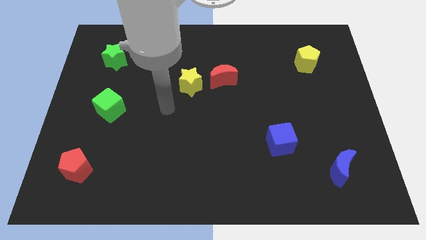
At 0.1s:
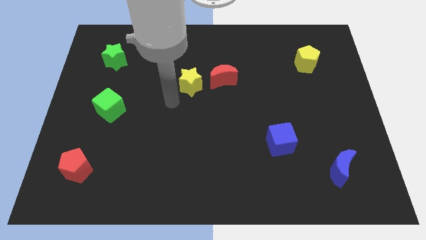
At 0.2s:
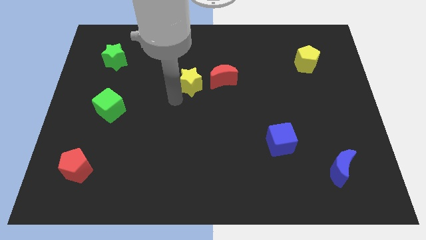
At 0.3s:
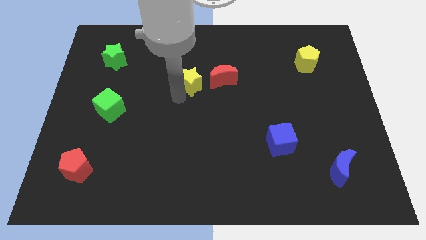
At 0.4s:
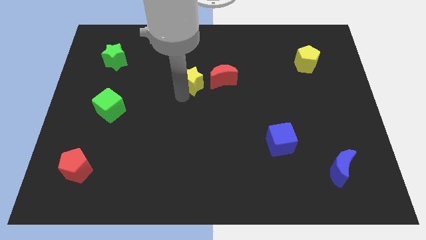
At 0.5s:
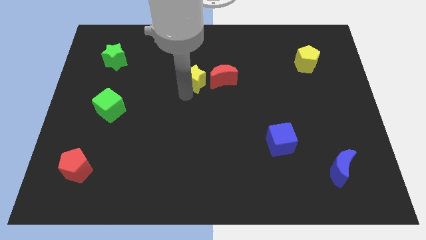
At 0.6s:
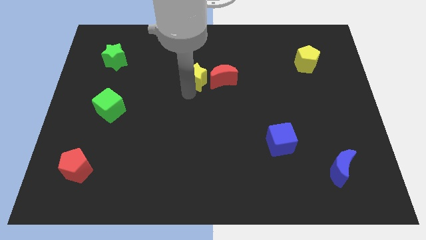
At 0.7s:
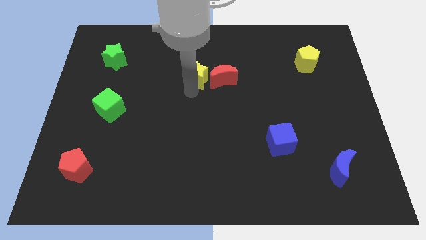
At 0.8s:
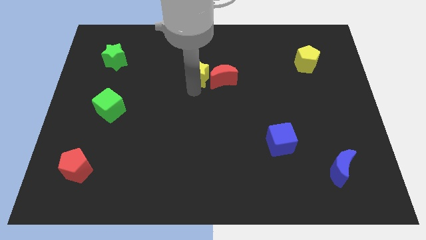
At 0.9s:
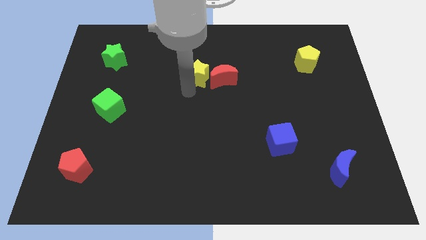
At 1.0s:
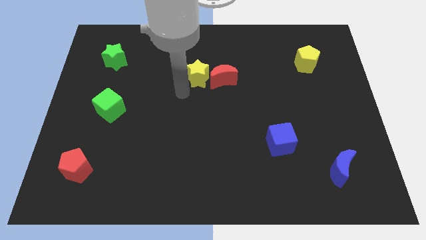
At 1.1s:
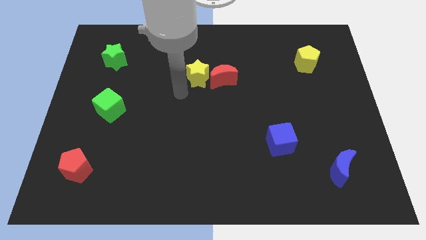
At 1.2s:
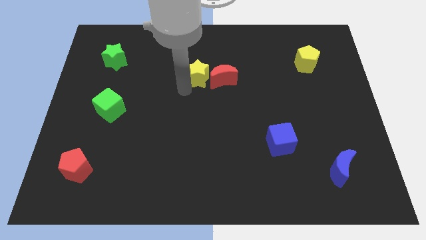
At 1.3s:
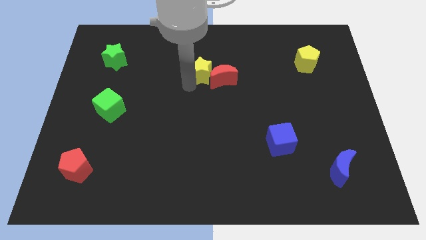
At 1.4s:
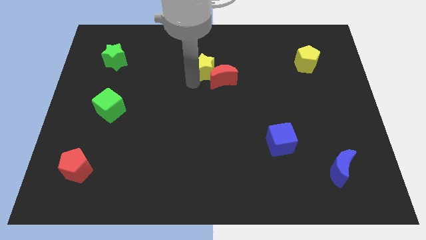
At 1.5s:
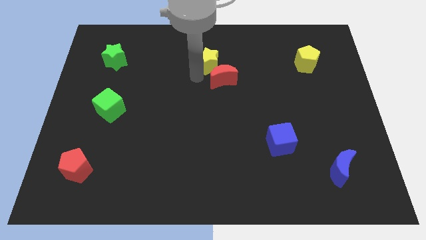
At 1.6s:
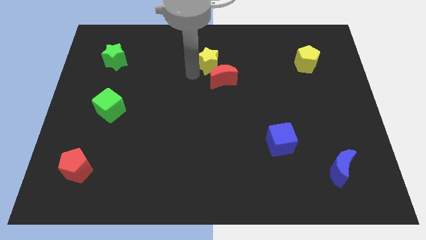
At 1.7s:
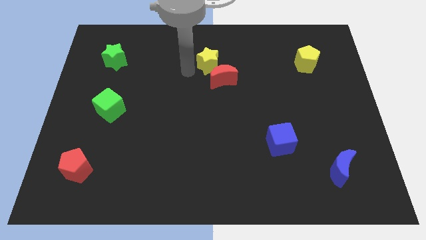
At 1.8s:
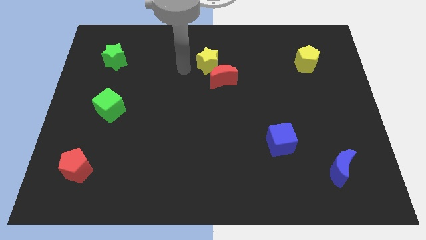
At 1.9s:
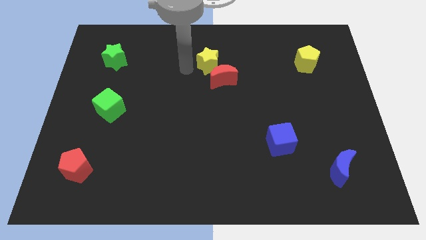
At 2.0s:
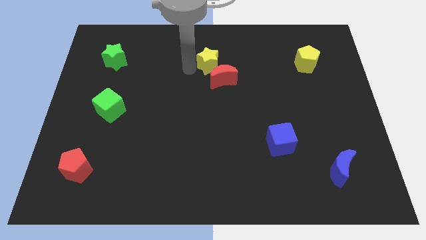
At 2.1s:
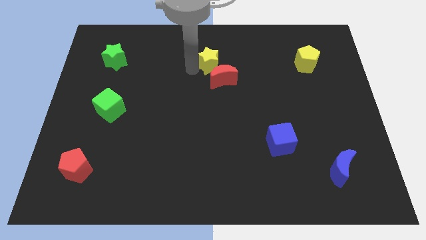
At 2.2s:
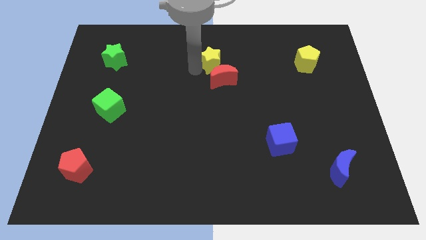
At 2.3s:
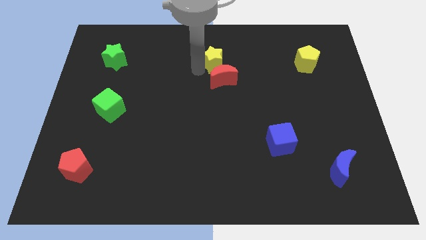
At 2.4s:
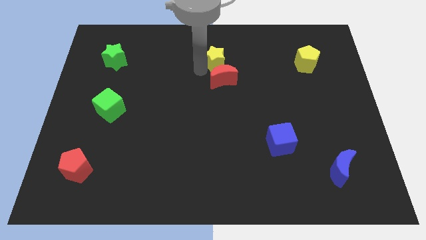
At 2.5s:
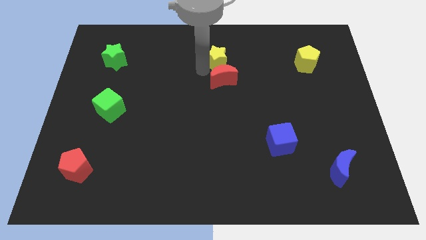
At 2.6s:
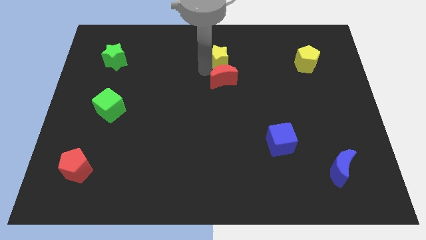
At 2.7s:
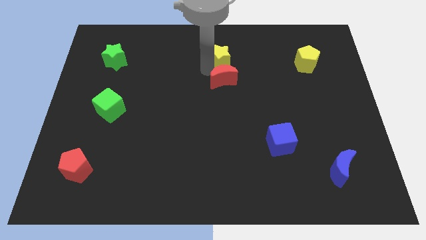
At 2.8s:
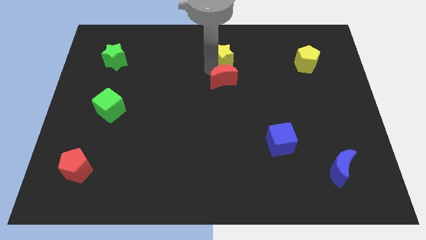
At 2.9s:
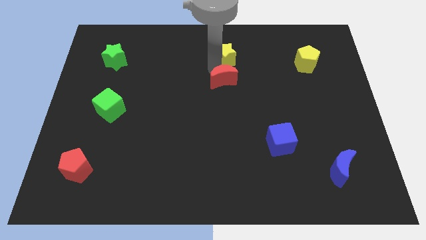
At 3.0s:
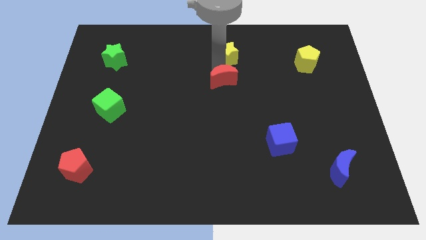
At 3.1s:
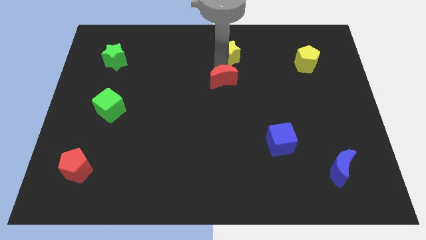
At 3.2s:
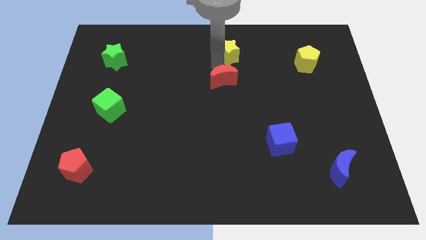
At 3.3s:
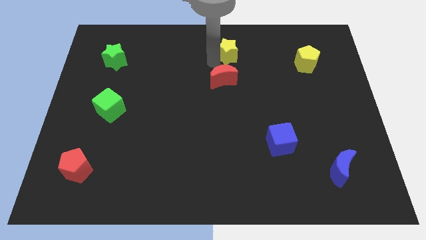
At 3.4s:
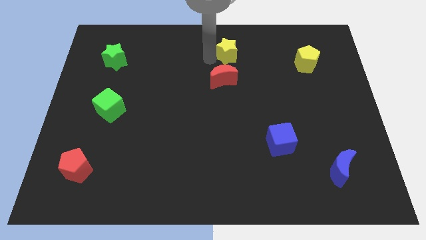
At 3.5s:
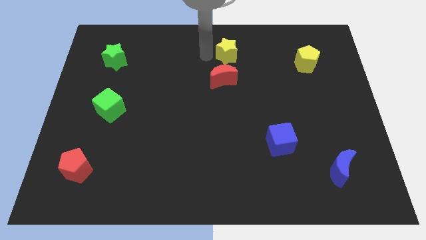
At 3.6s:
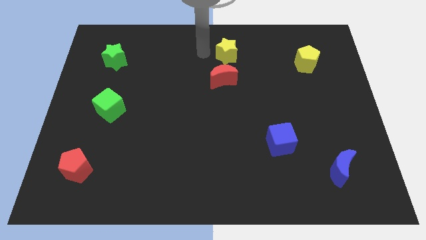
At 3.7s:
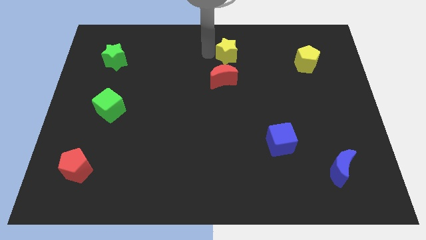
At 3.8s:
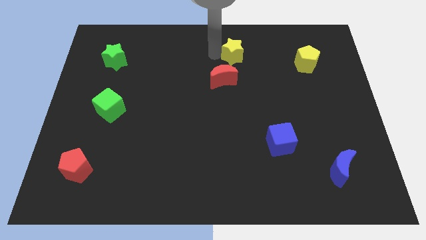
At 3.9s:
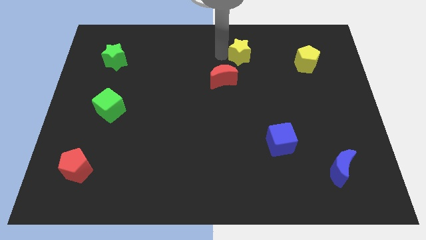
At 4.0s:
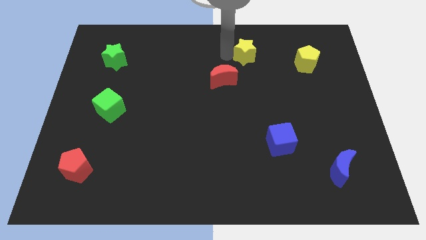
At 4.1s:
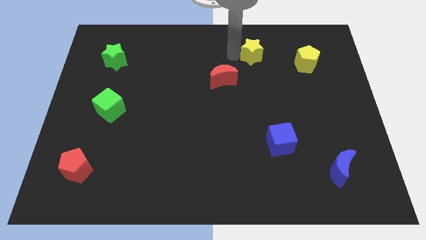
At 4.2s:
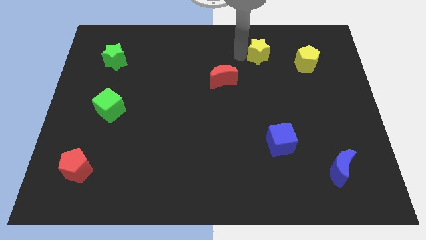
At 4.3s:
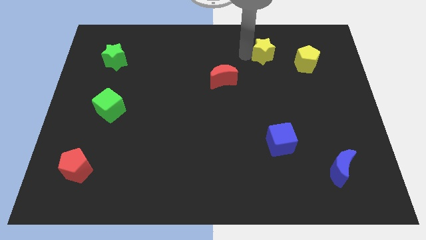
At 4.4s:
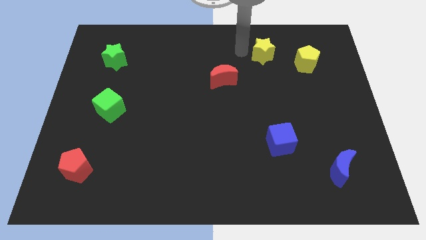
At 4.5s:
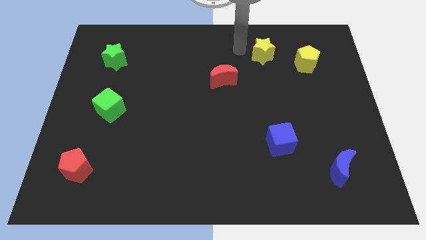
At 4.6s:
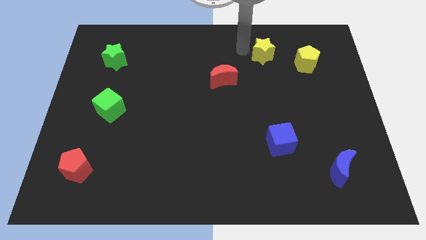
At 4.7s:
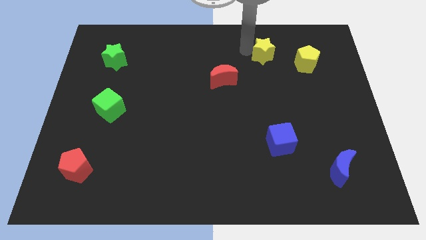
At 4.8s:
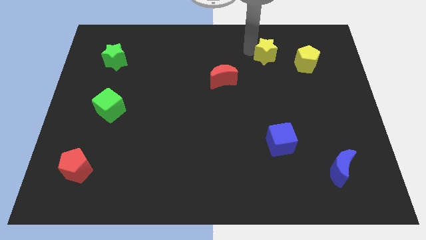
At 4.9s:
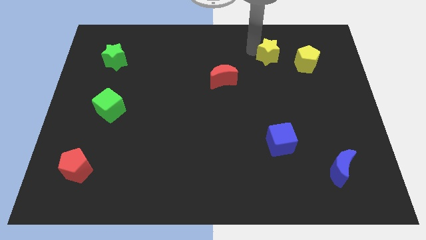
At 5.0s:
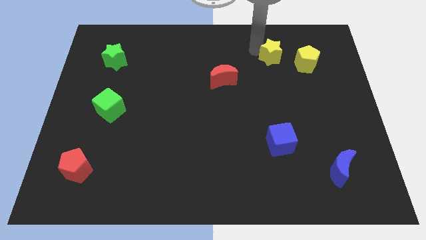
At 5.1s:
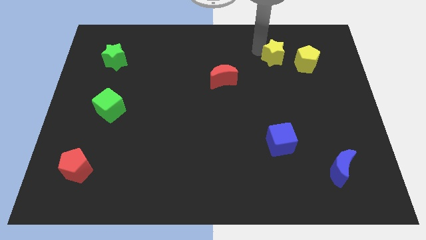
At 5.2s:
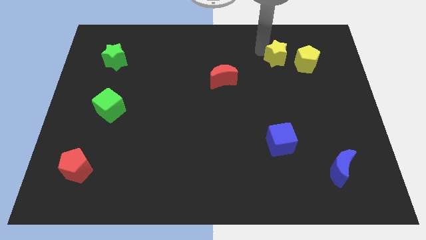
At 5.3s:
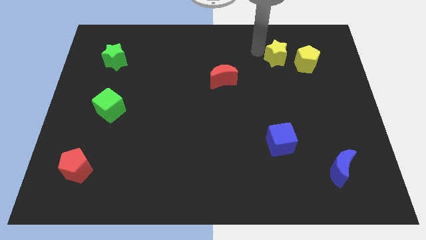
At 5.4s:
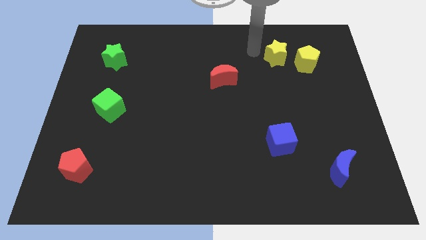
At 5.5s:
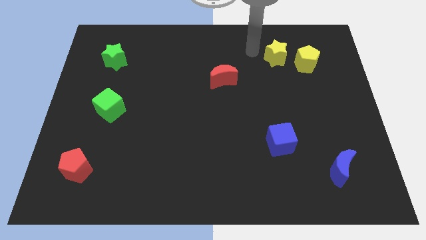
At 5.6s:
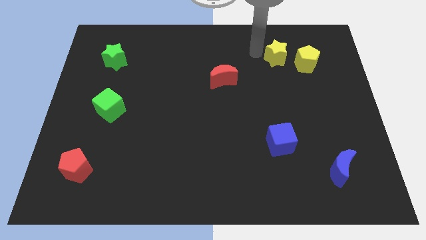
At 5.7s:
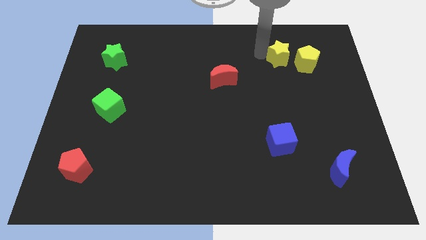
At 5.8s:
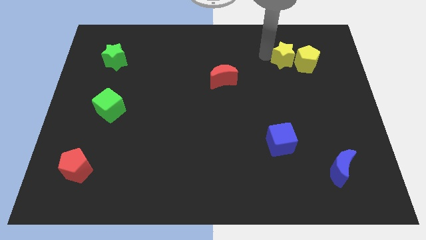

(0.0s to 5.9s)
put the yellow star next to the yellow pentagon

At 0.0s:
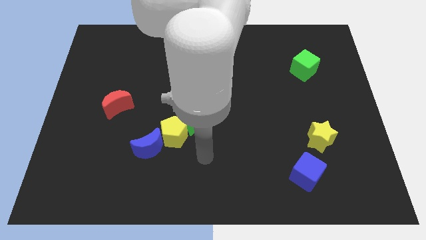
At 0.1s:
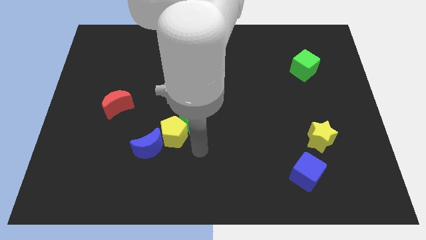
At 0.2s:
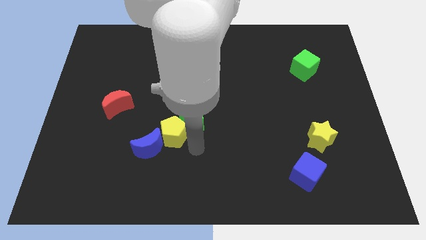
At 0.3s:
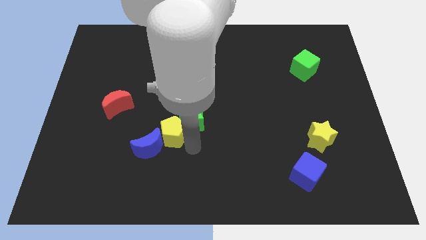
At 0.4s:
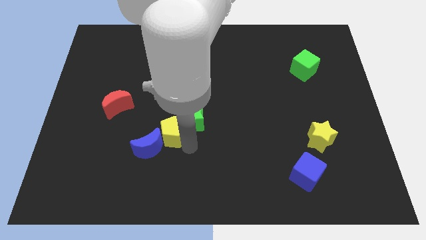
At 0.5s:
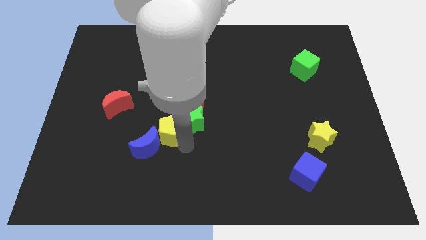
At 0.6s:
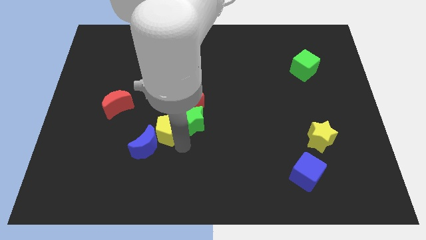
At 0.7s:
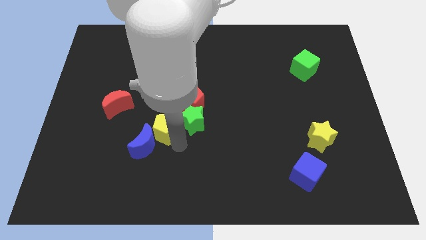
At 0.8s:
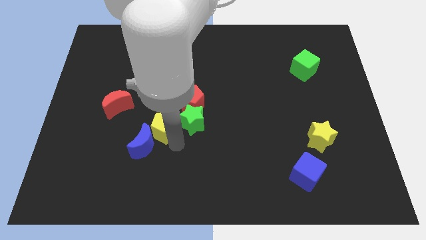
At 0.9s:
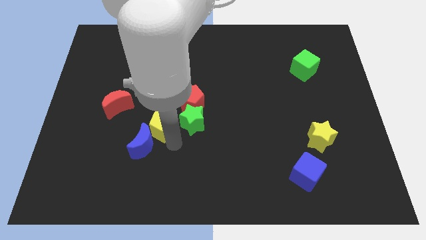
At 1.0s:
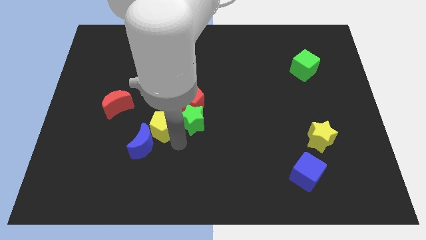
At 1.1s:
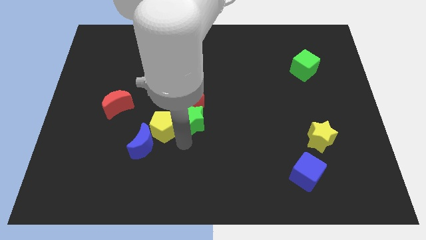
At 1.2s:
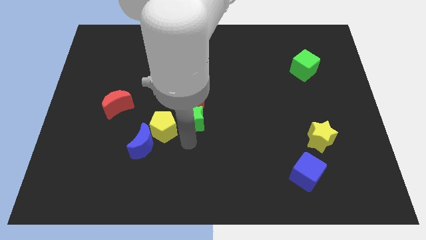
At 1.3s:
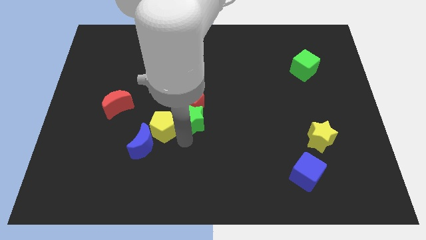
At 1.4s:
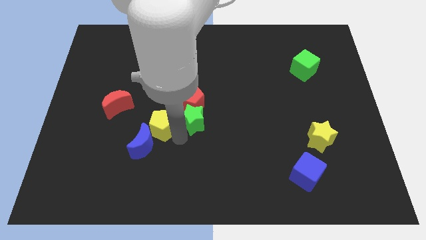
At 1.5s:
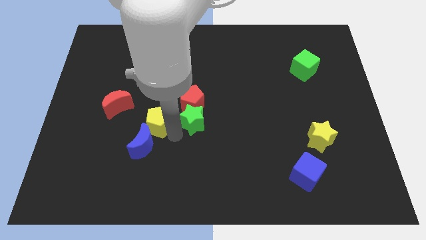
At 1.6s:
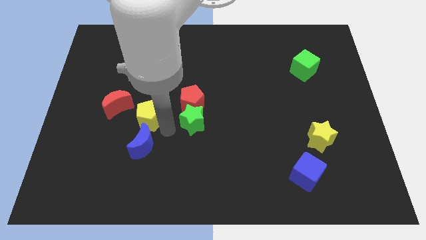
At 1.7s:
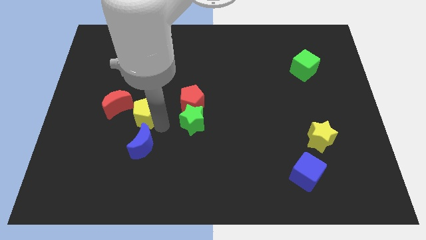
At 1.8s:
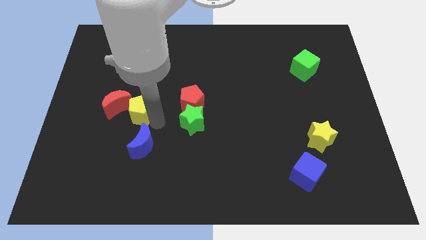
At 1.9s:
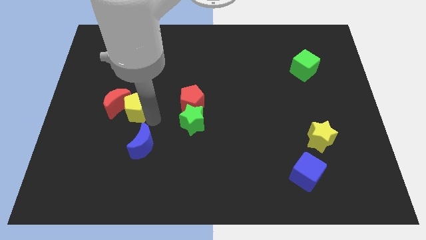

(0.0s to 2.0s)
push the yellow pentagon to the red moon

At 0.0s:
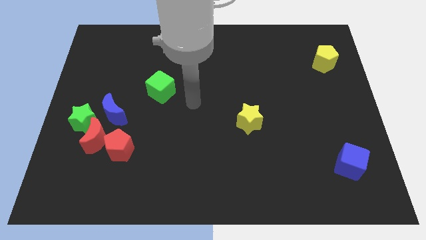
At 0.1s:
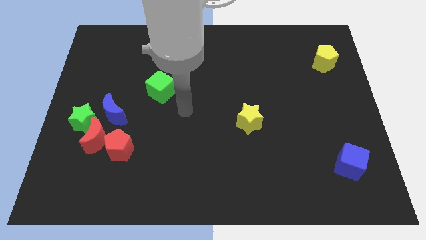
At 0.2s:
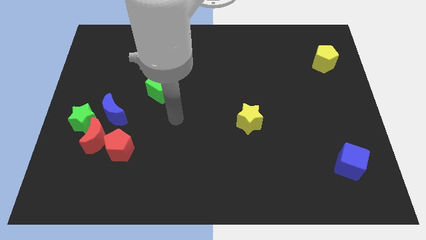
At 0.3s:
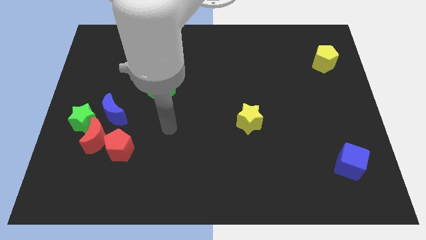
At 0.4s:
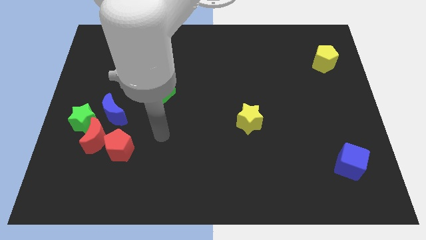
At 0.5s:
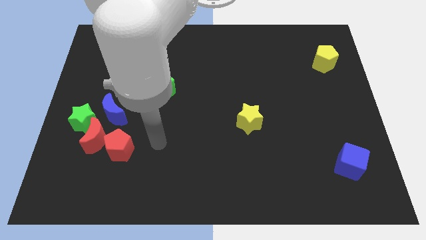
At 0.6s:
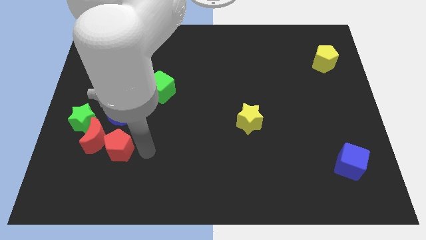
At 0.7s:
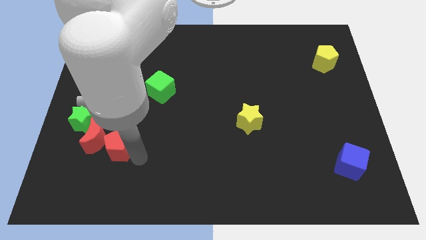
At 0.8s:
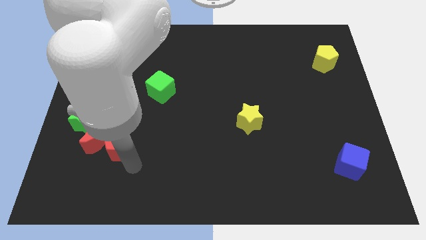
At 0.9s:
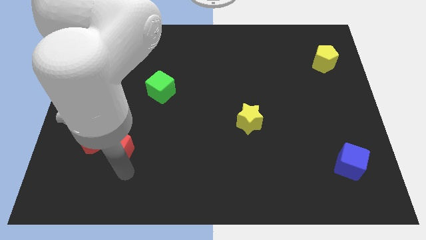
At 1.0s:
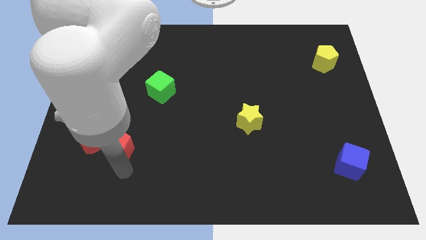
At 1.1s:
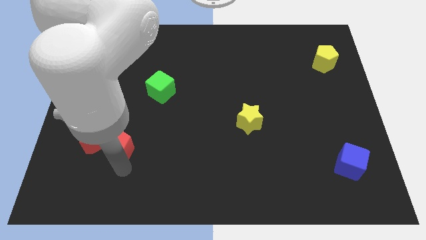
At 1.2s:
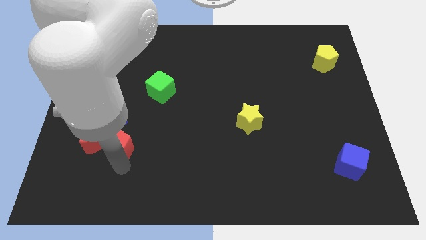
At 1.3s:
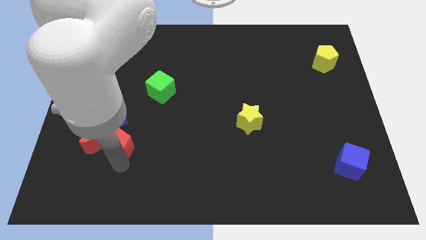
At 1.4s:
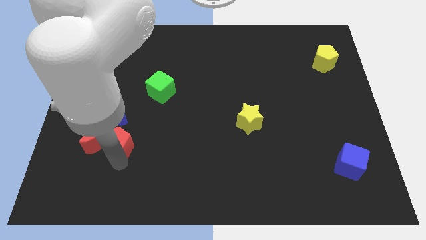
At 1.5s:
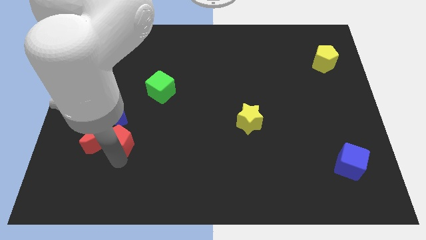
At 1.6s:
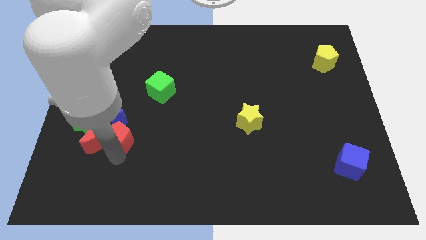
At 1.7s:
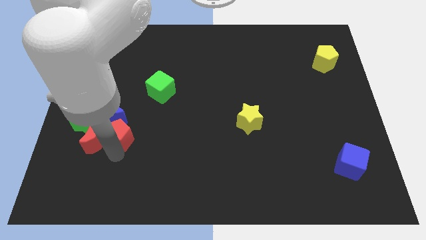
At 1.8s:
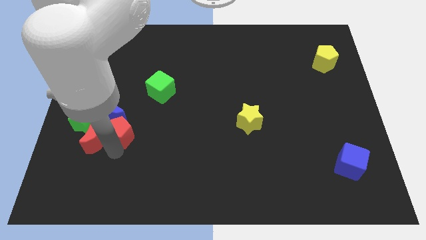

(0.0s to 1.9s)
slide the red pentagon to the blue moon
